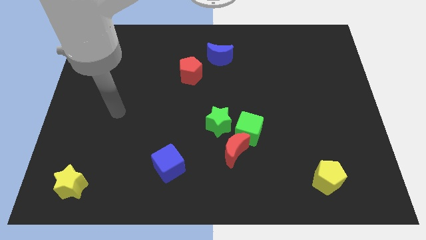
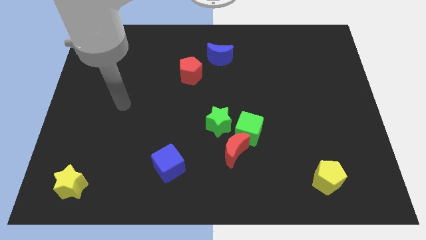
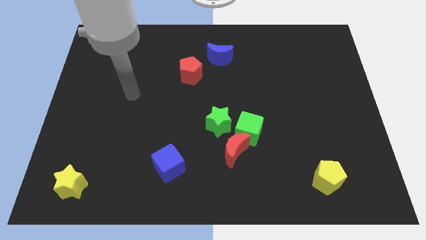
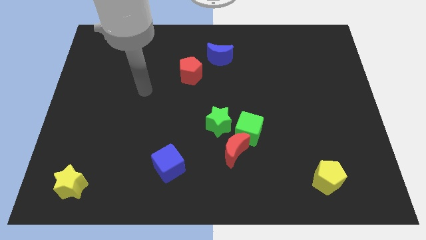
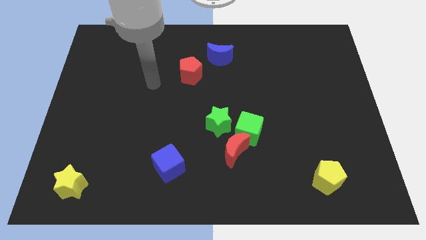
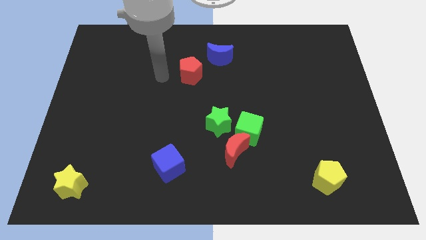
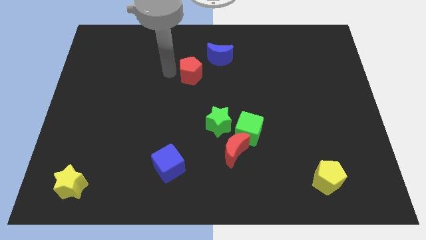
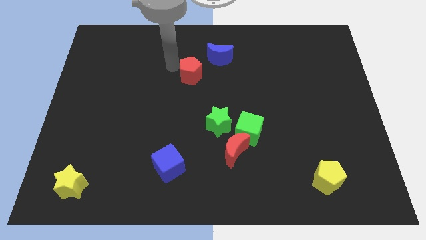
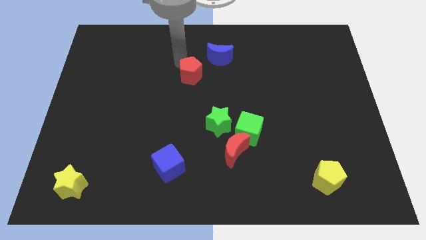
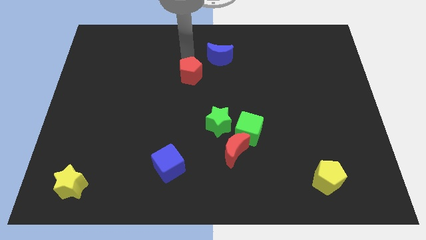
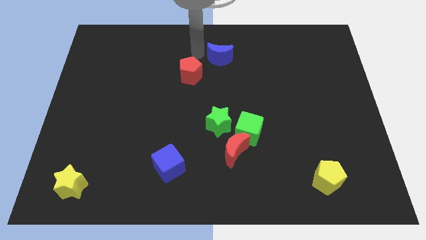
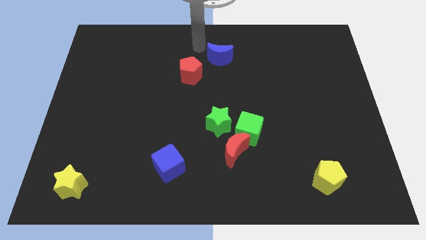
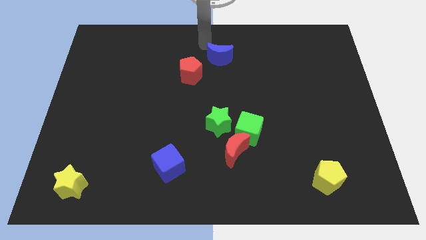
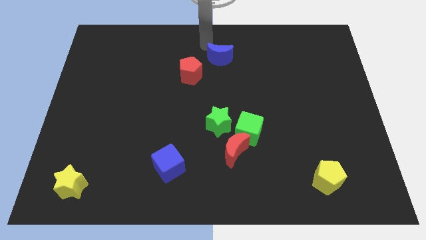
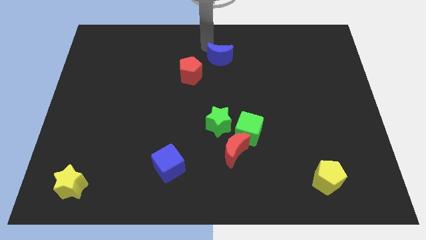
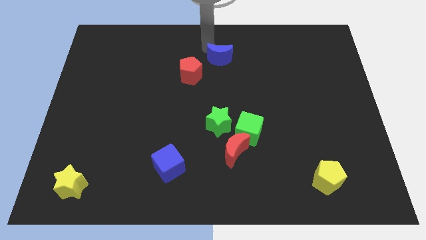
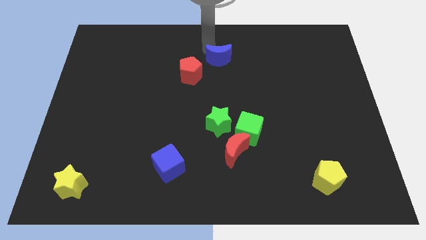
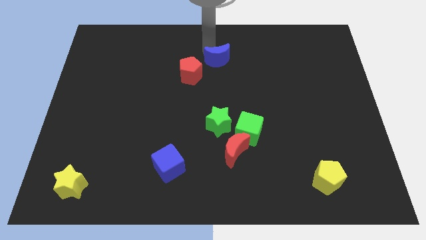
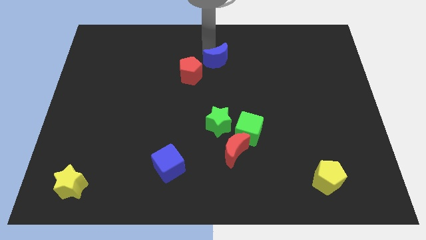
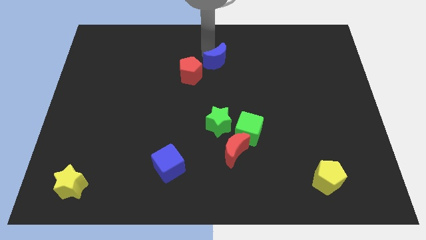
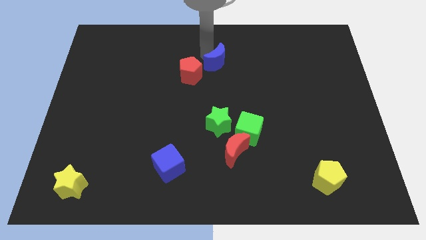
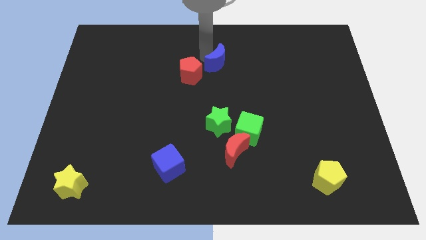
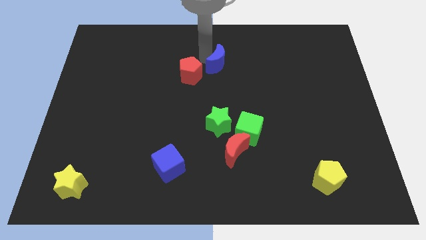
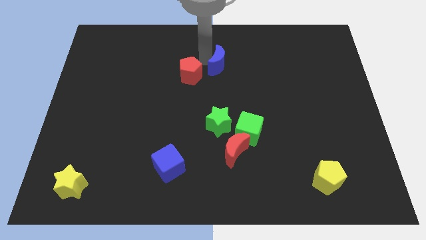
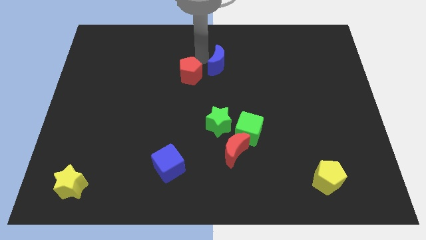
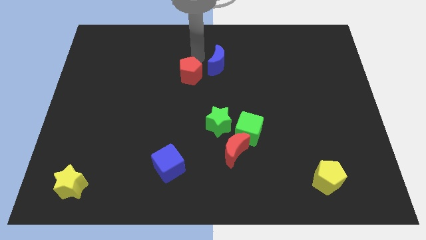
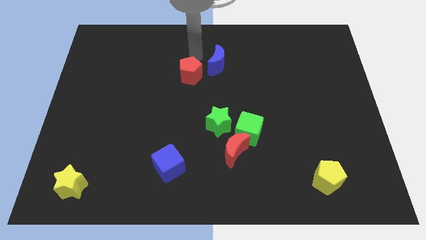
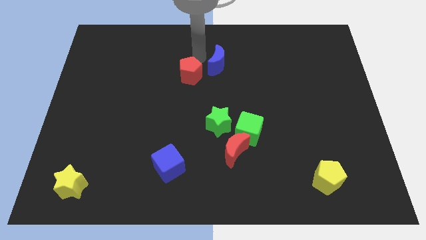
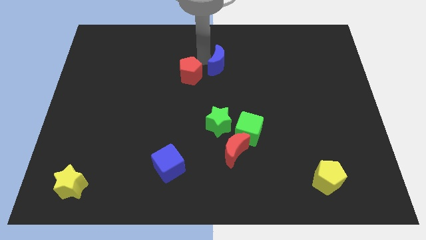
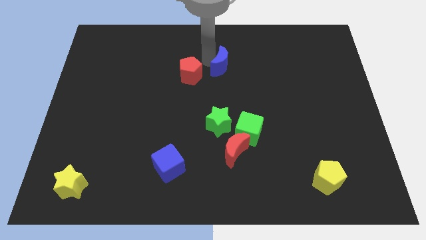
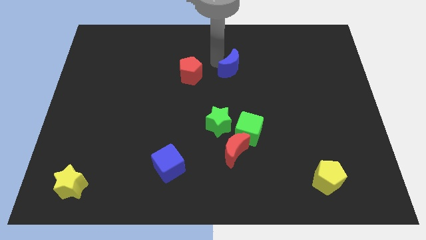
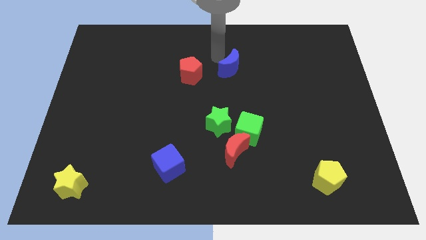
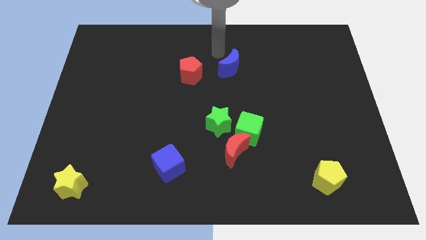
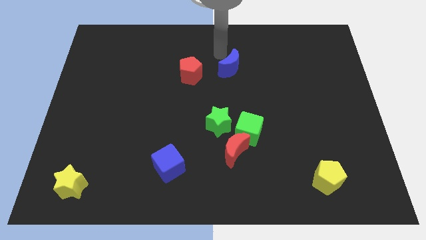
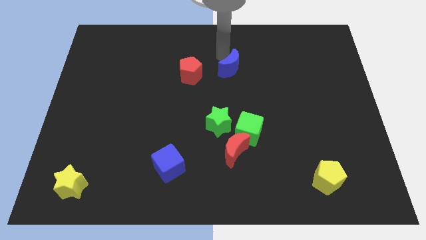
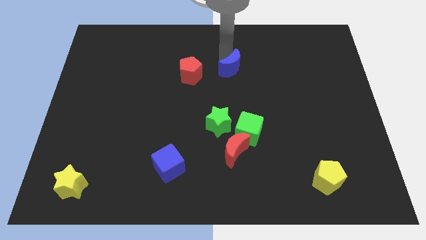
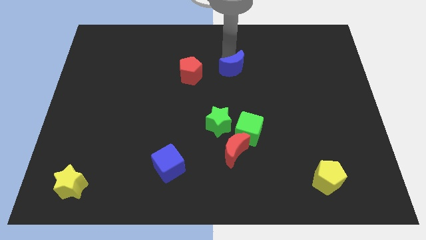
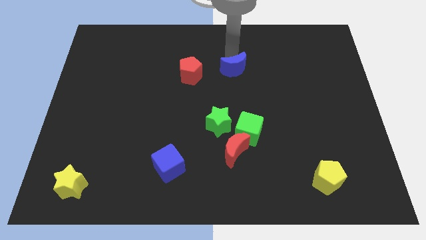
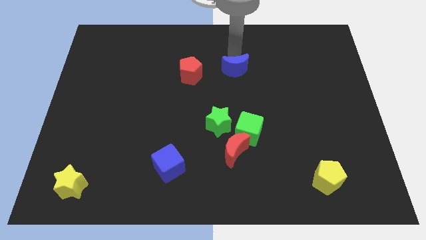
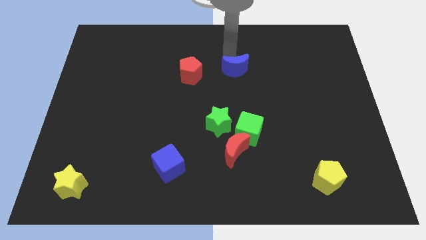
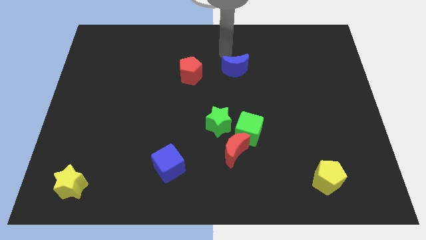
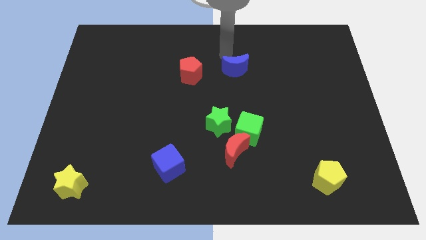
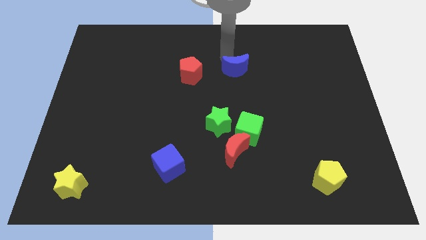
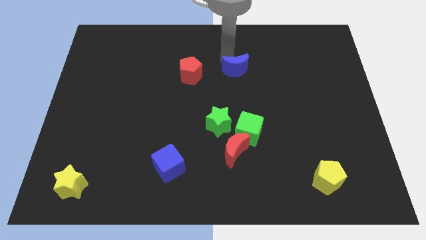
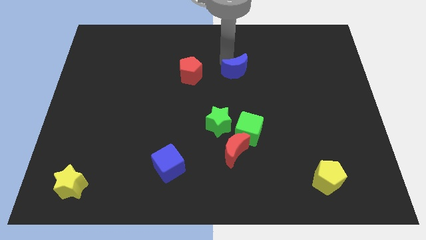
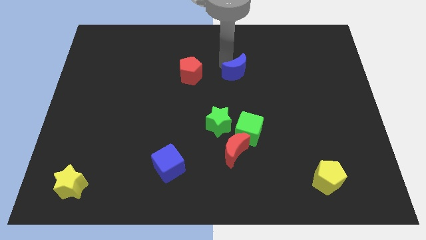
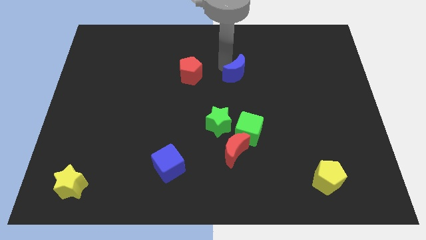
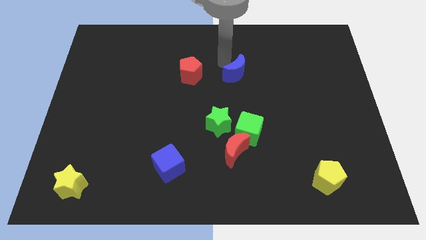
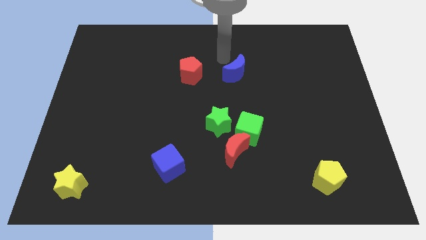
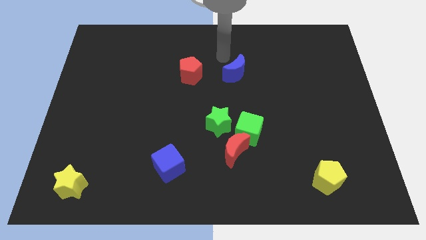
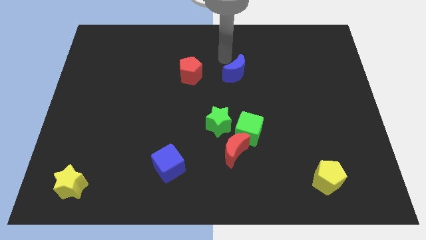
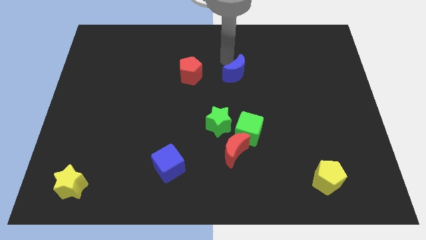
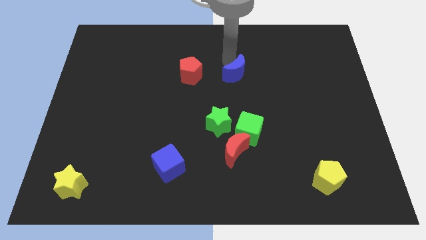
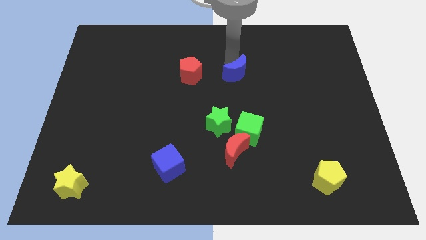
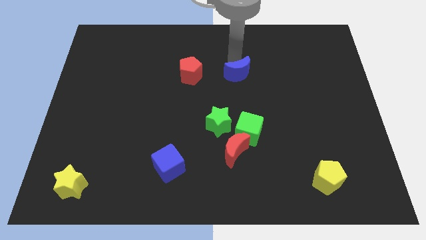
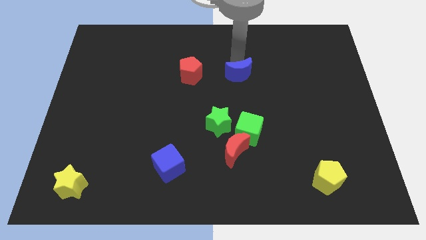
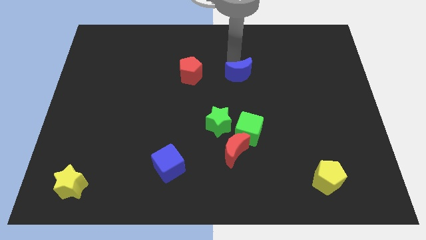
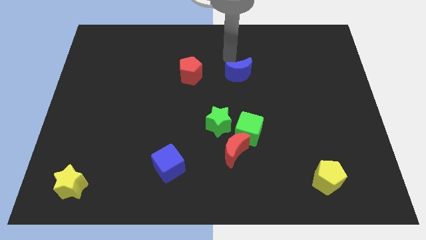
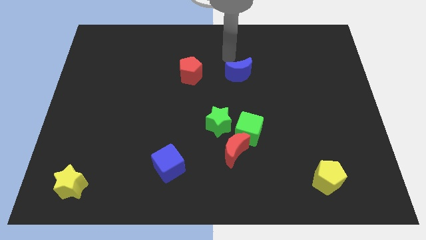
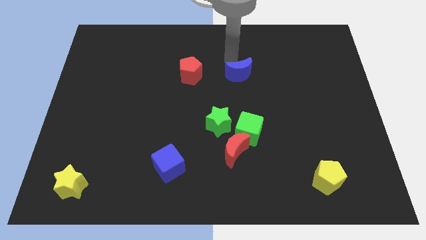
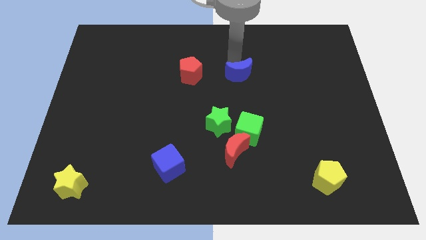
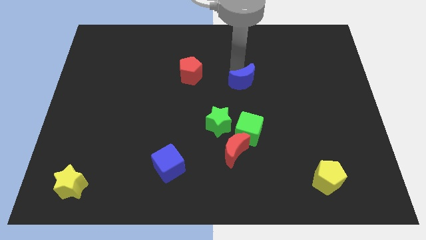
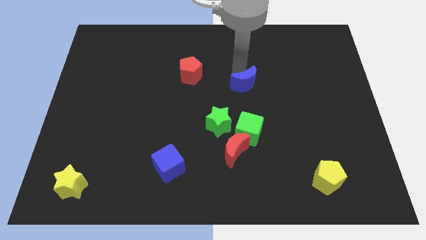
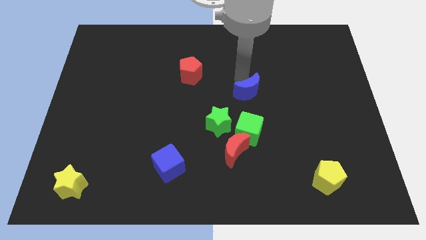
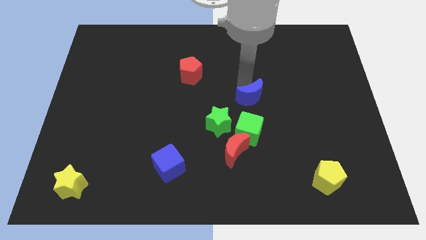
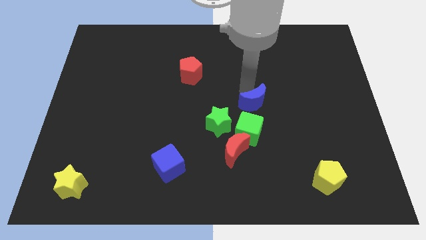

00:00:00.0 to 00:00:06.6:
move the blue moon to the top right side of the green cube

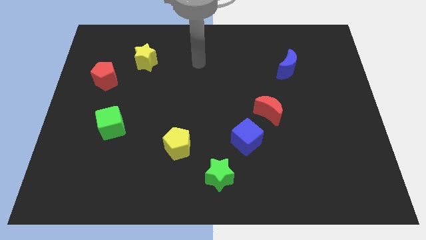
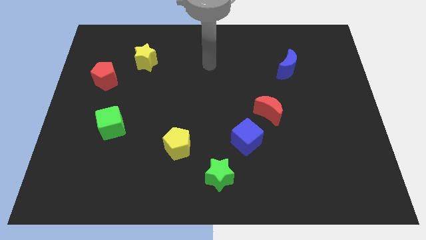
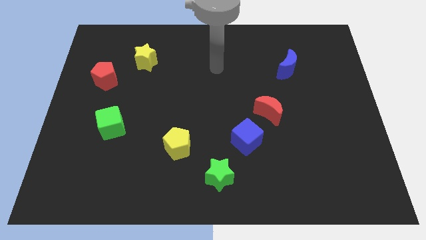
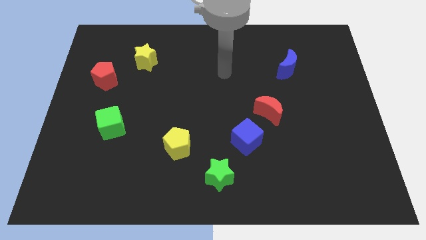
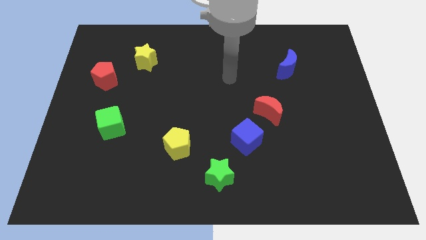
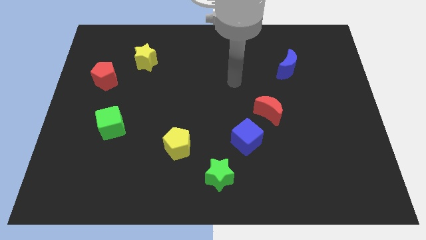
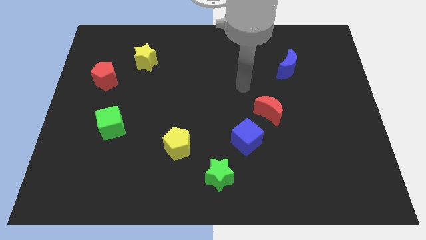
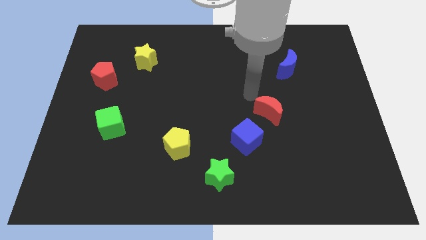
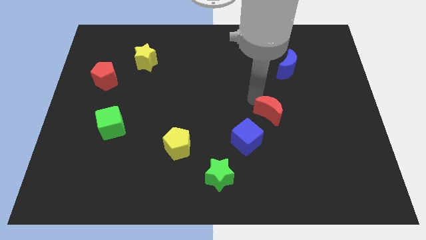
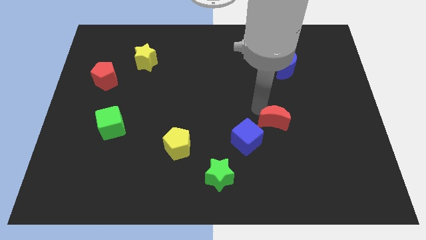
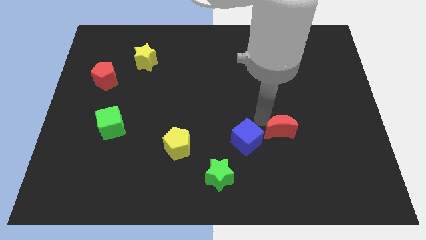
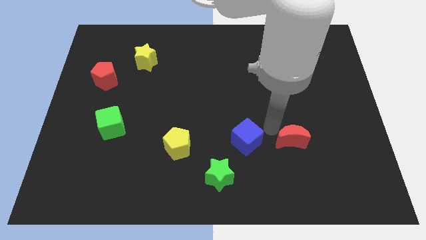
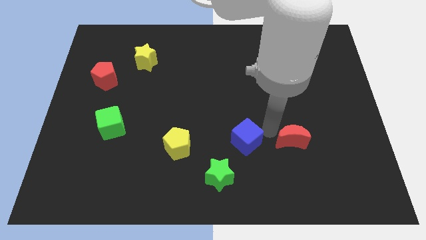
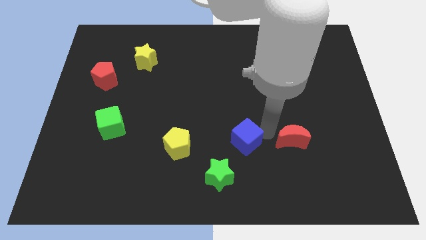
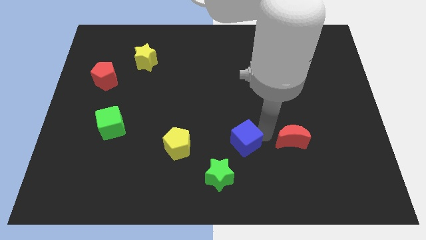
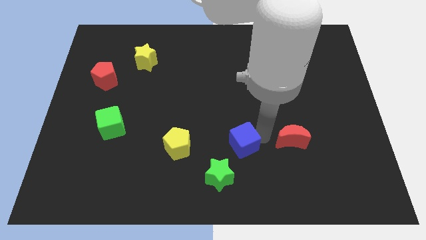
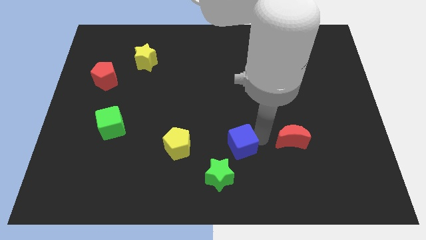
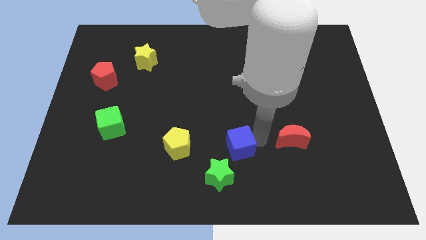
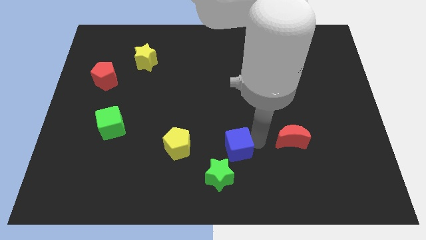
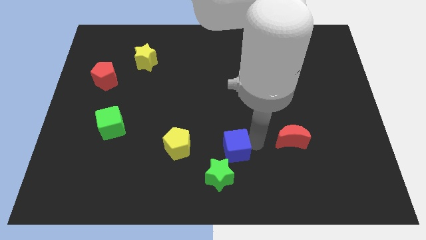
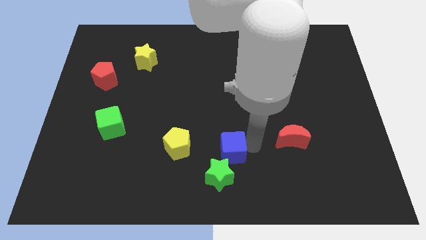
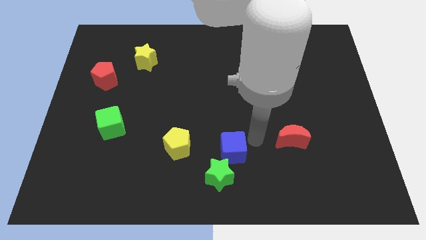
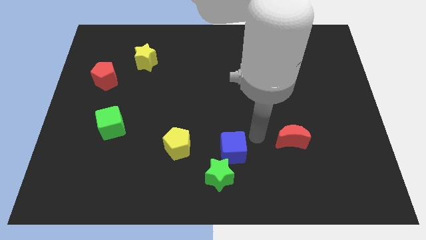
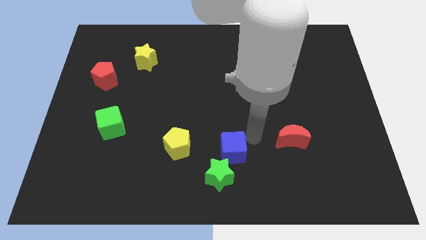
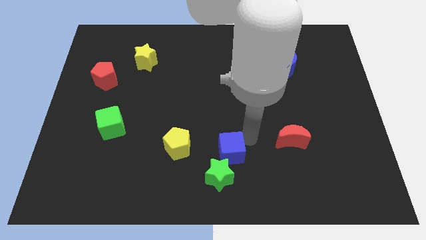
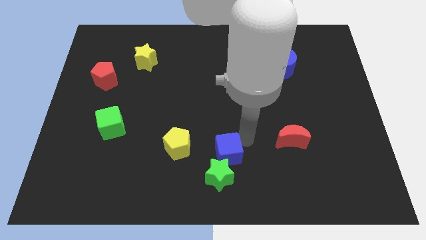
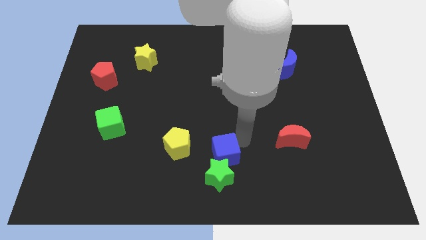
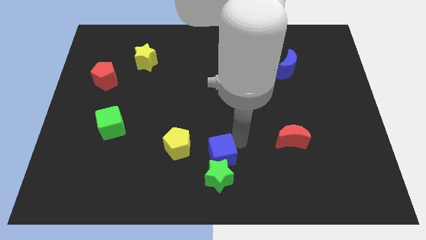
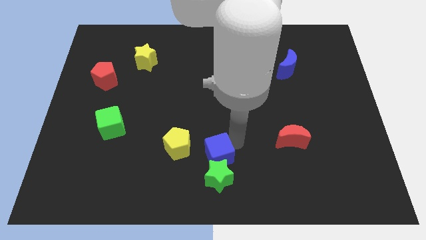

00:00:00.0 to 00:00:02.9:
slide the blue cube to the bottom right side of the yellow pentagon
